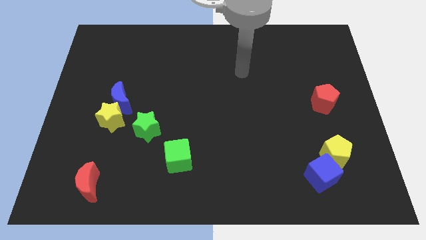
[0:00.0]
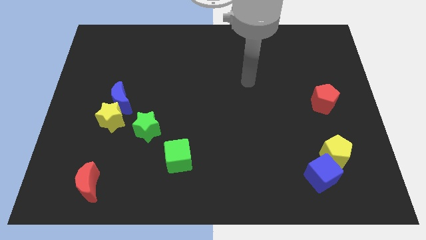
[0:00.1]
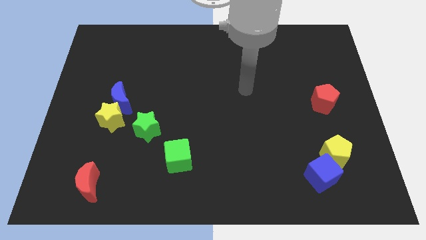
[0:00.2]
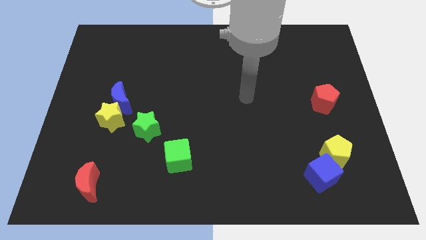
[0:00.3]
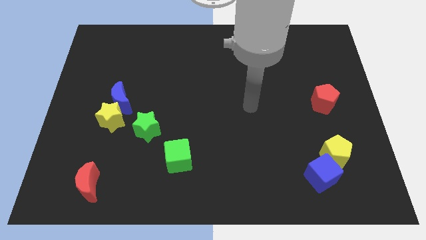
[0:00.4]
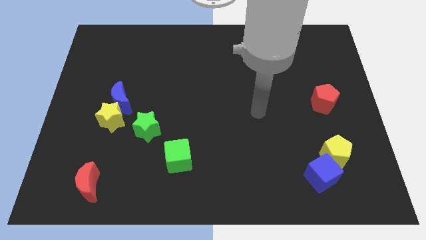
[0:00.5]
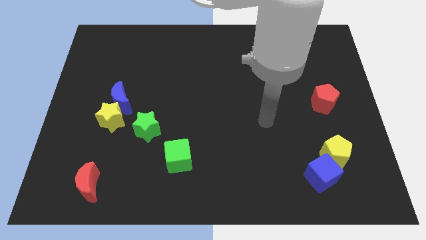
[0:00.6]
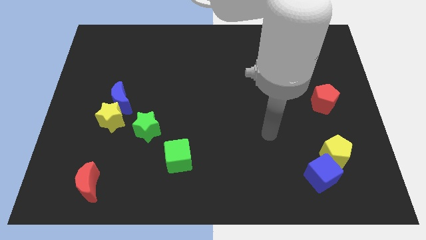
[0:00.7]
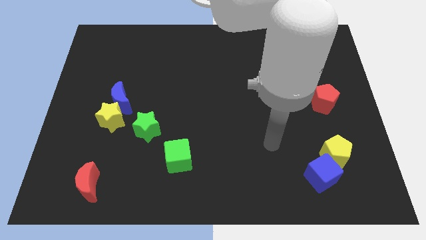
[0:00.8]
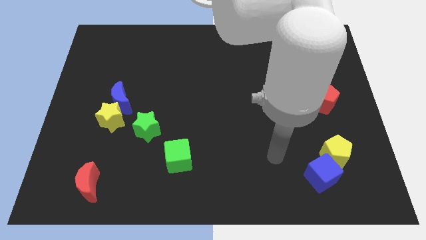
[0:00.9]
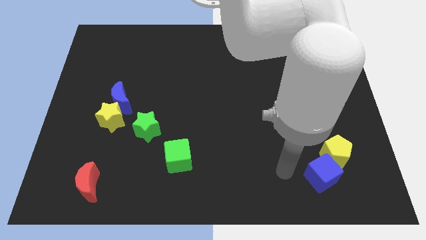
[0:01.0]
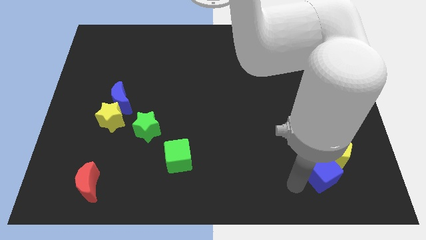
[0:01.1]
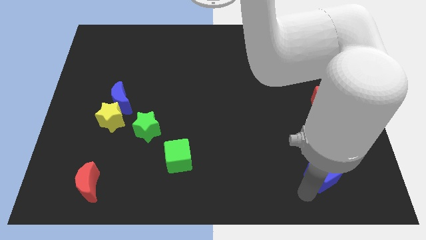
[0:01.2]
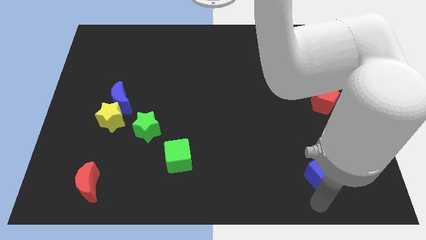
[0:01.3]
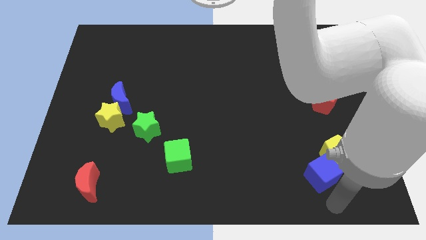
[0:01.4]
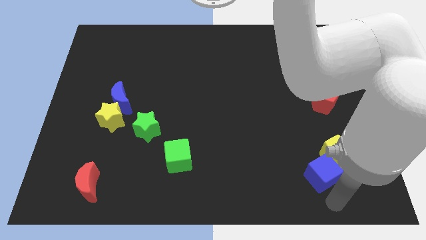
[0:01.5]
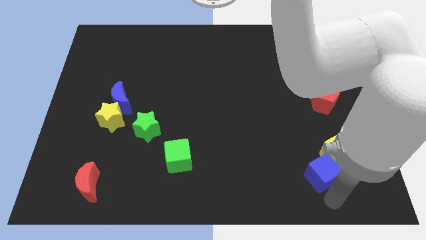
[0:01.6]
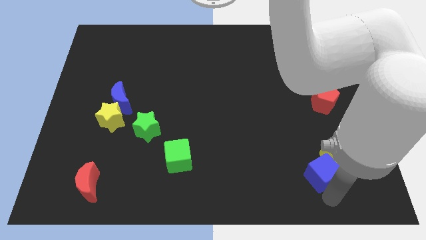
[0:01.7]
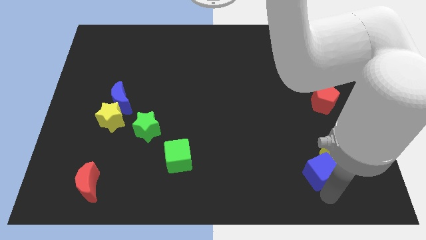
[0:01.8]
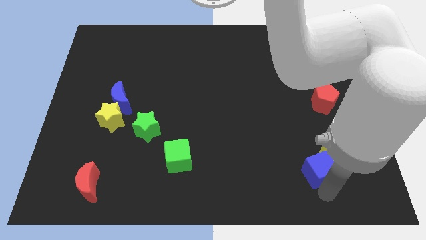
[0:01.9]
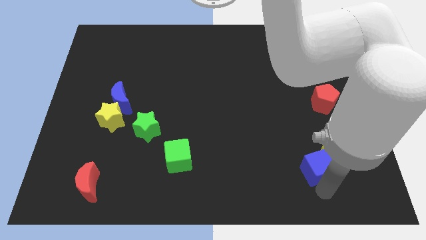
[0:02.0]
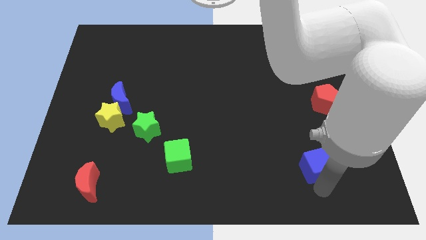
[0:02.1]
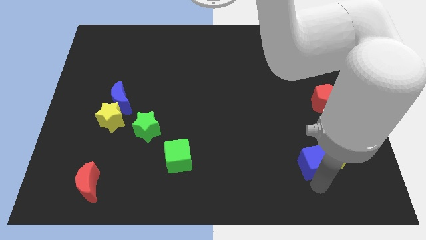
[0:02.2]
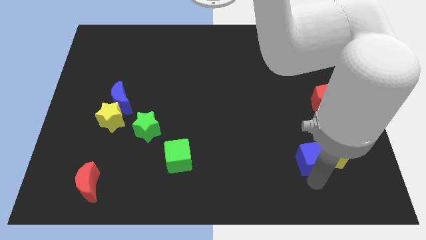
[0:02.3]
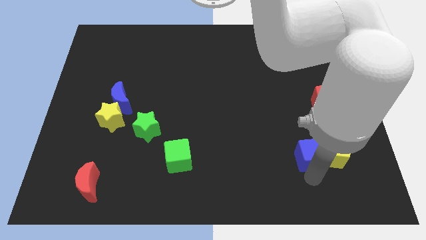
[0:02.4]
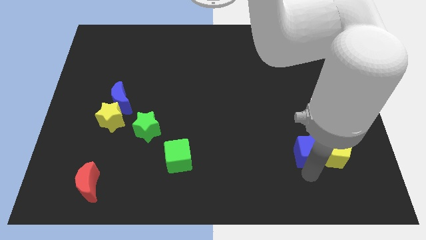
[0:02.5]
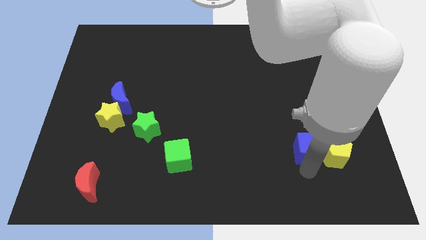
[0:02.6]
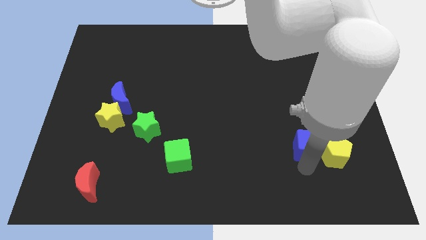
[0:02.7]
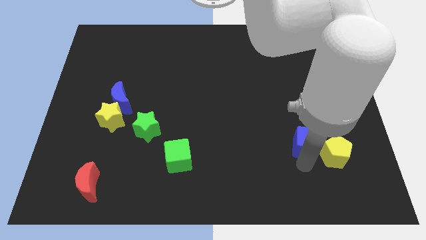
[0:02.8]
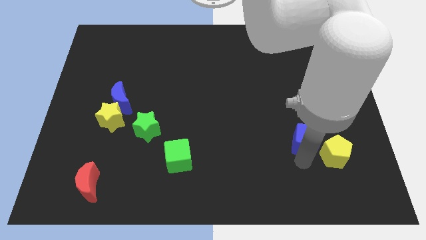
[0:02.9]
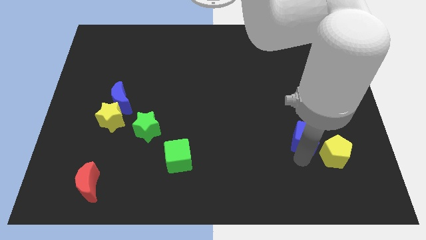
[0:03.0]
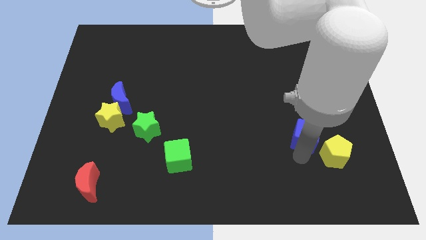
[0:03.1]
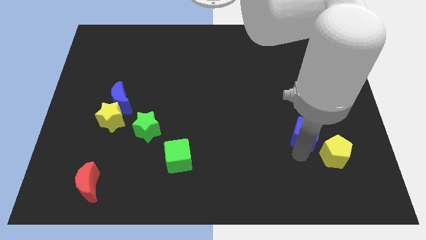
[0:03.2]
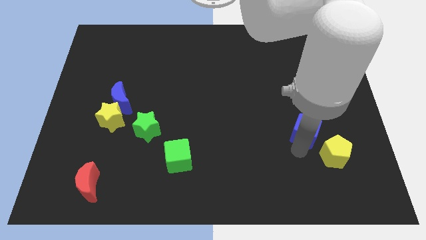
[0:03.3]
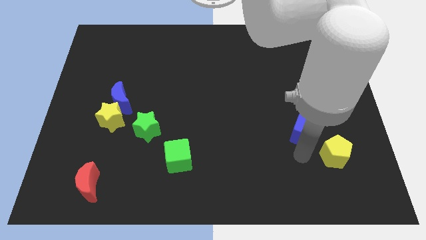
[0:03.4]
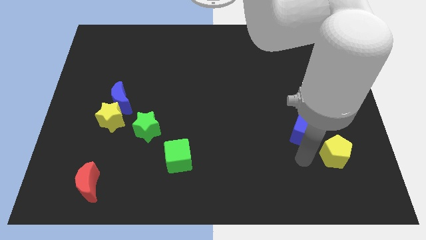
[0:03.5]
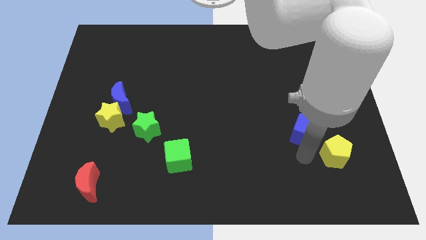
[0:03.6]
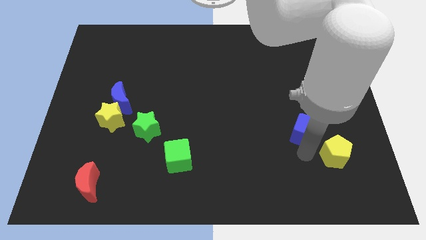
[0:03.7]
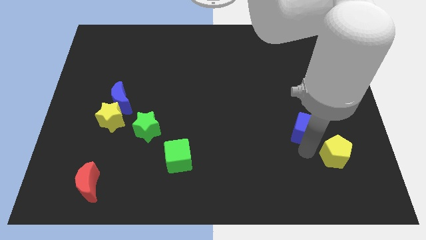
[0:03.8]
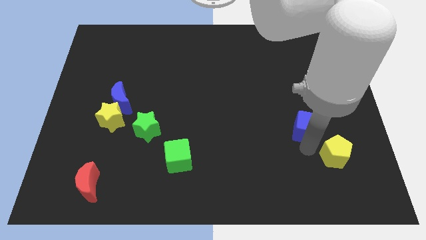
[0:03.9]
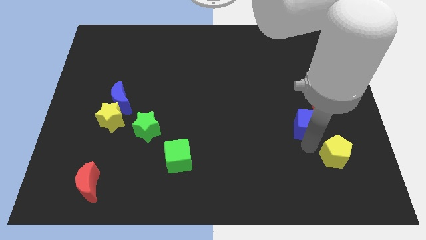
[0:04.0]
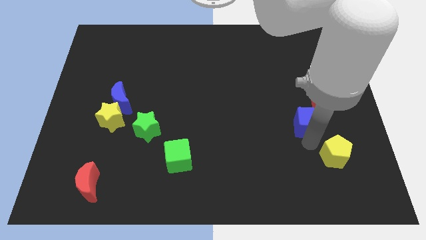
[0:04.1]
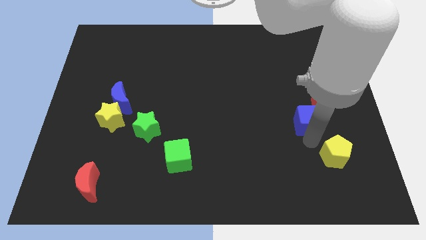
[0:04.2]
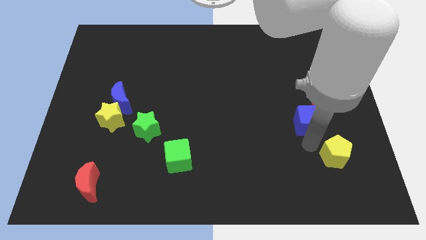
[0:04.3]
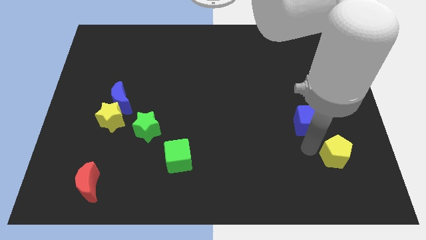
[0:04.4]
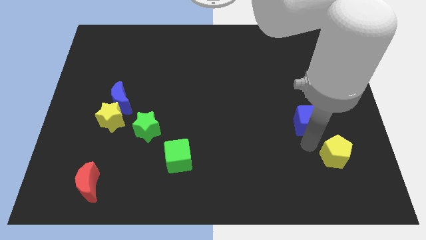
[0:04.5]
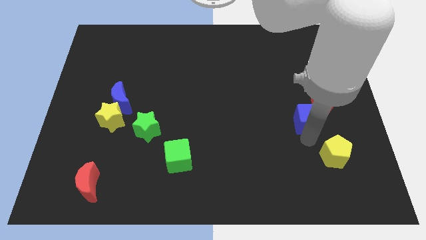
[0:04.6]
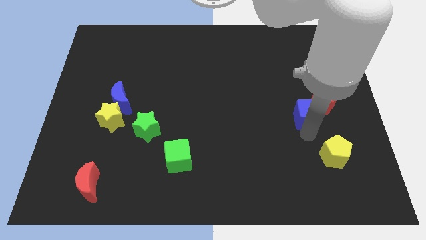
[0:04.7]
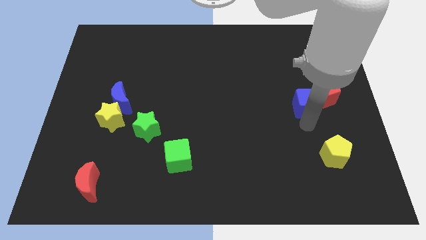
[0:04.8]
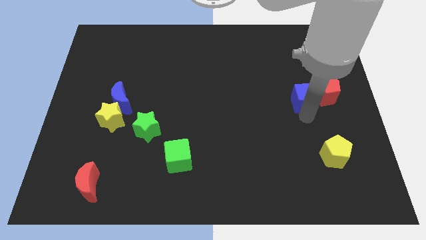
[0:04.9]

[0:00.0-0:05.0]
slide the blue cube upwards

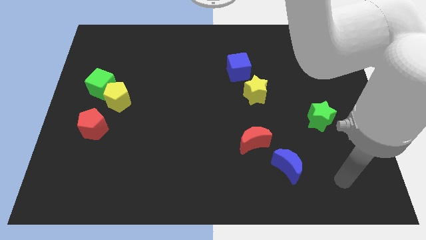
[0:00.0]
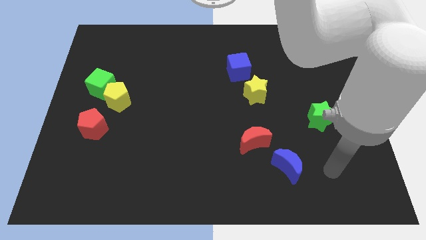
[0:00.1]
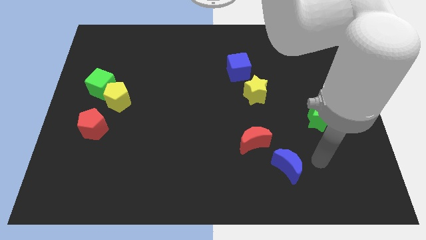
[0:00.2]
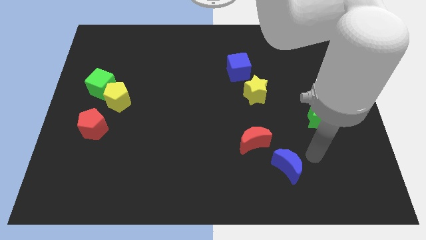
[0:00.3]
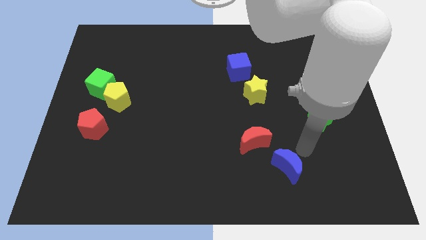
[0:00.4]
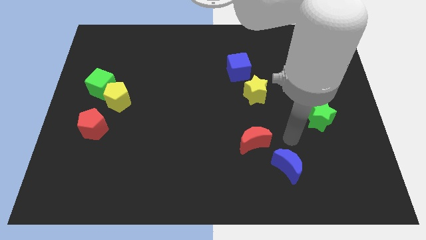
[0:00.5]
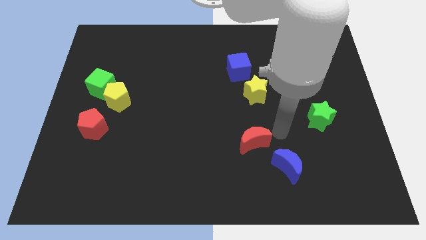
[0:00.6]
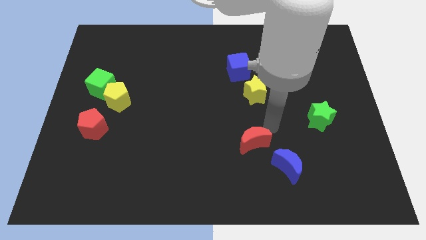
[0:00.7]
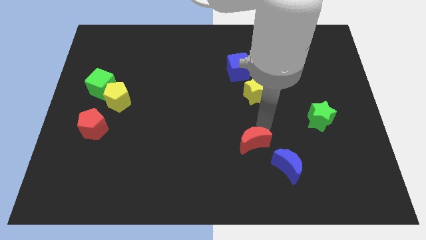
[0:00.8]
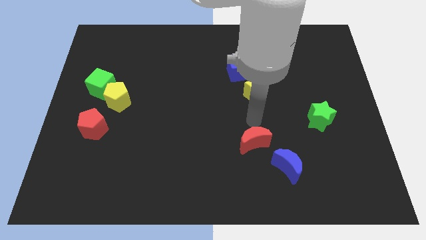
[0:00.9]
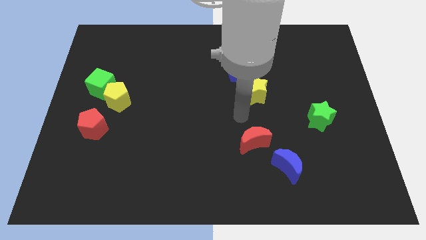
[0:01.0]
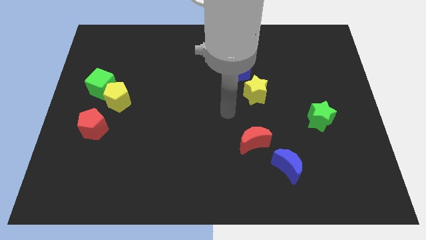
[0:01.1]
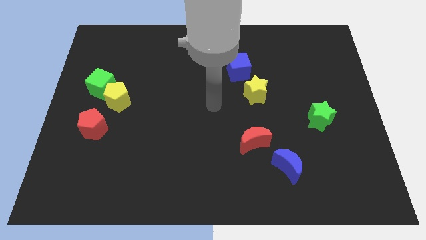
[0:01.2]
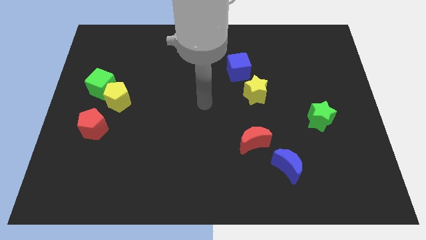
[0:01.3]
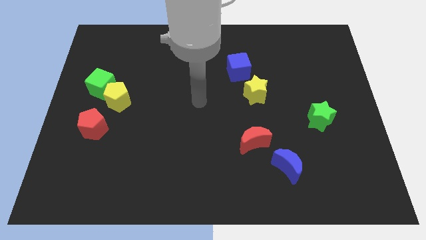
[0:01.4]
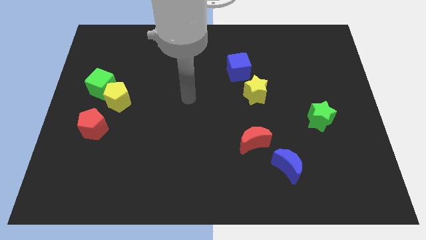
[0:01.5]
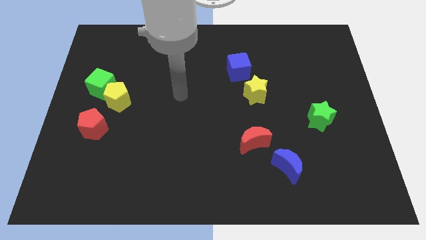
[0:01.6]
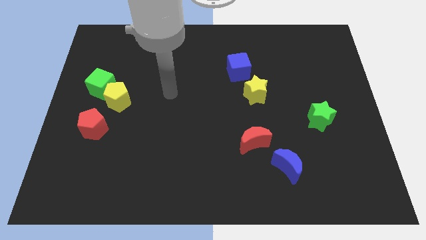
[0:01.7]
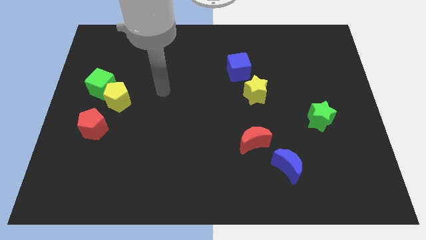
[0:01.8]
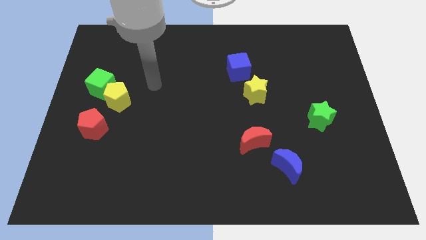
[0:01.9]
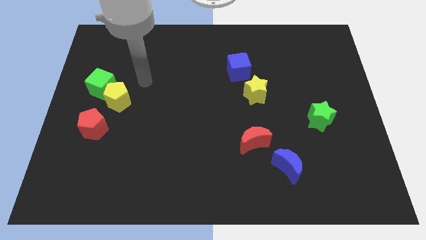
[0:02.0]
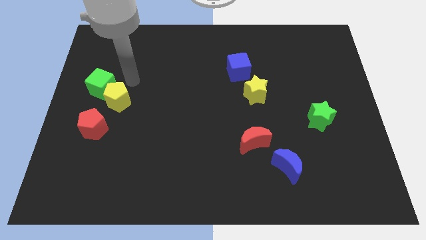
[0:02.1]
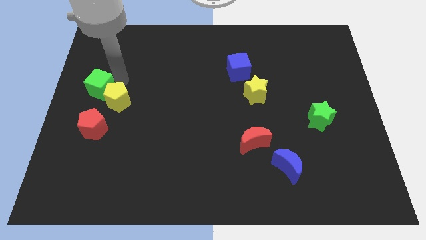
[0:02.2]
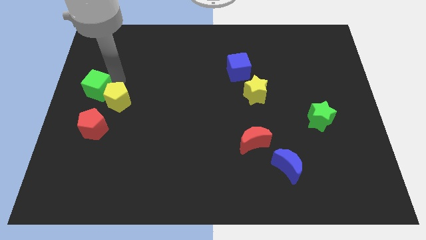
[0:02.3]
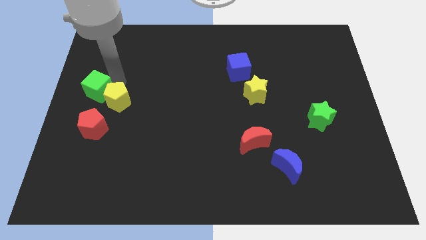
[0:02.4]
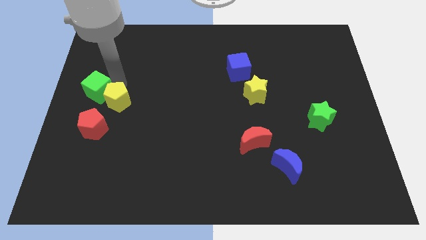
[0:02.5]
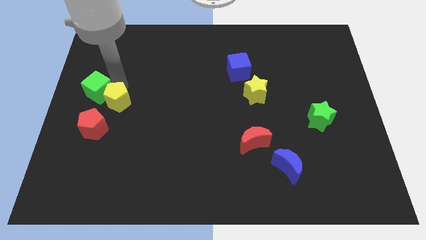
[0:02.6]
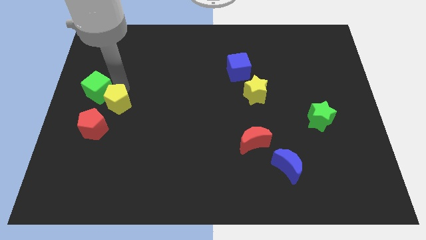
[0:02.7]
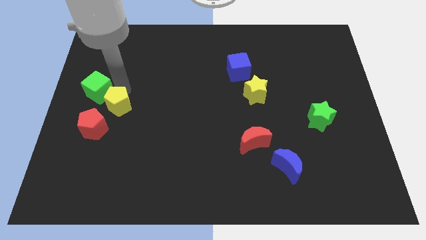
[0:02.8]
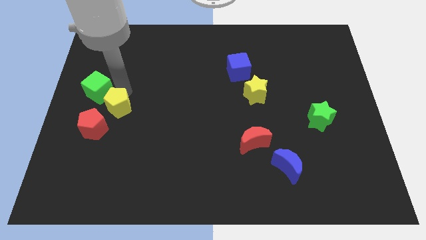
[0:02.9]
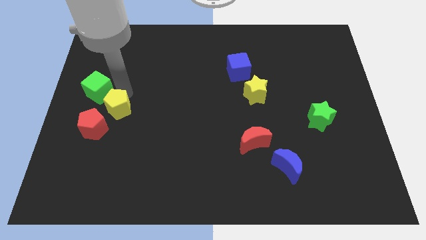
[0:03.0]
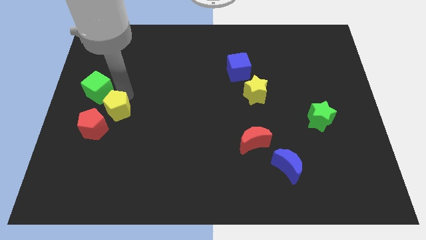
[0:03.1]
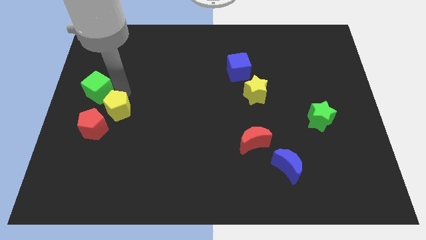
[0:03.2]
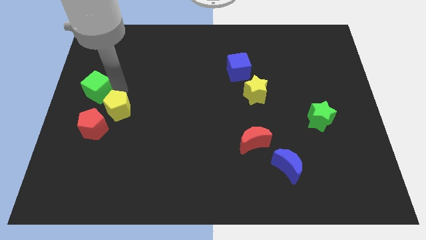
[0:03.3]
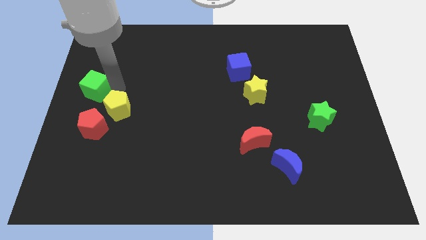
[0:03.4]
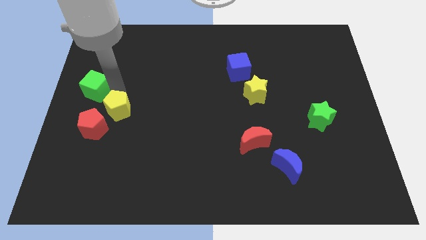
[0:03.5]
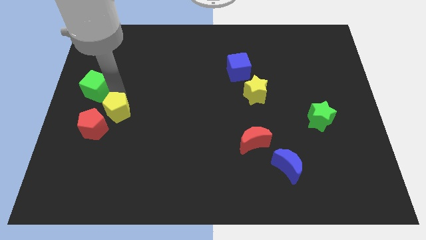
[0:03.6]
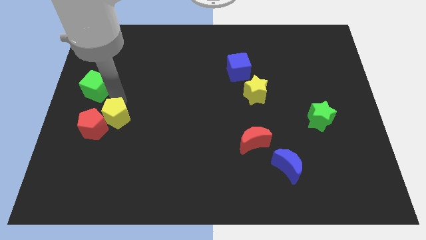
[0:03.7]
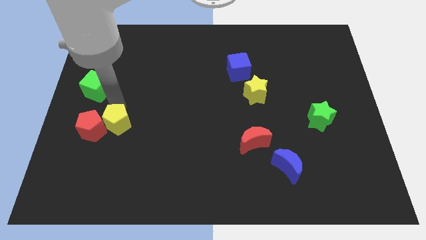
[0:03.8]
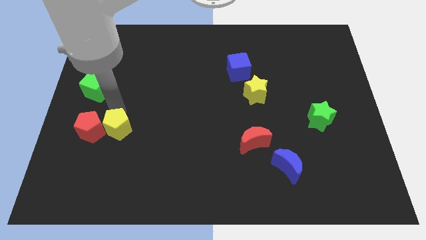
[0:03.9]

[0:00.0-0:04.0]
move the yellow pentagon down a little
